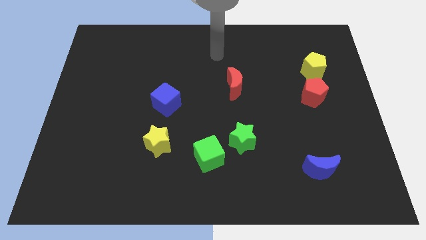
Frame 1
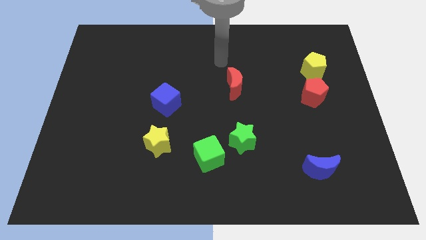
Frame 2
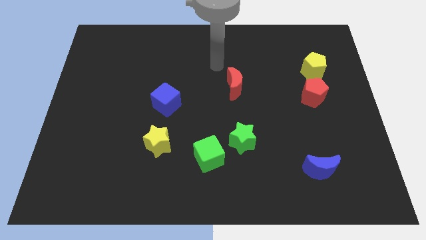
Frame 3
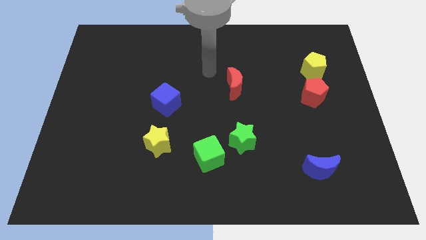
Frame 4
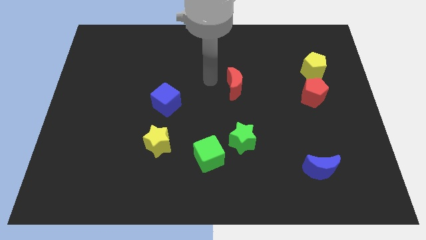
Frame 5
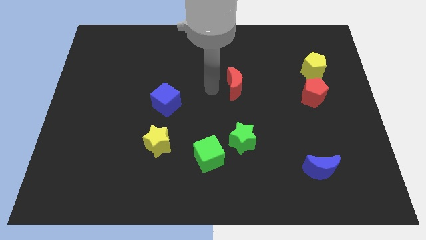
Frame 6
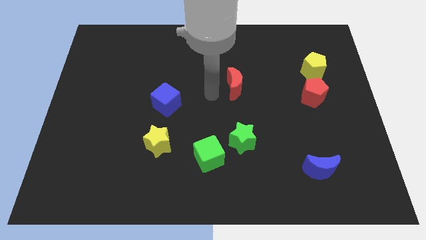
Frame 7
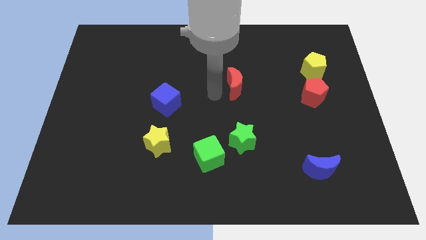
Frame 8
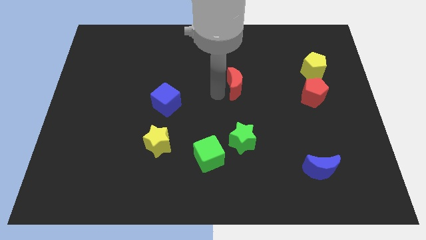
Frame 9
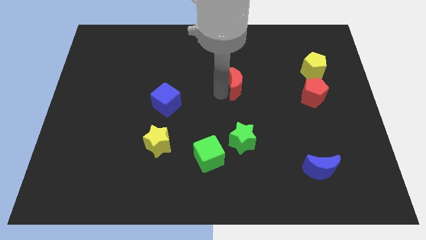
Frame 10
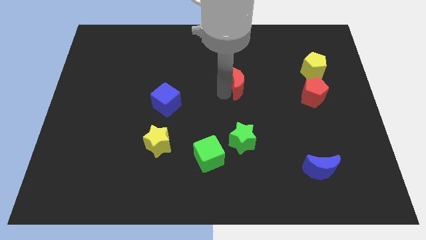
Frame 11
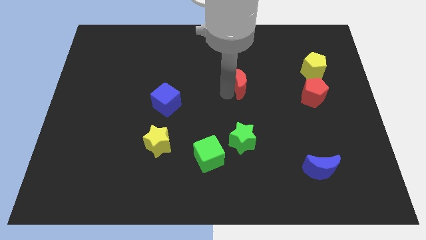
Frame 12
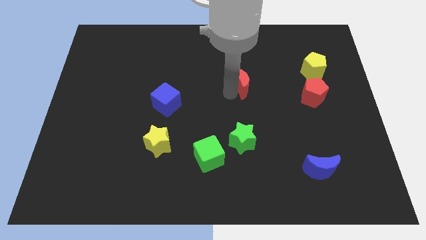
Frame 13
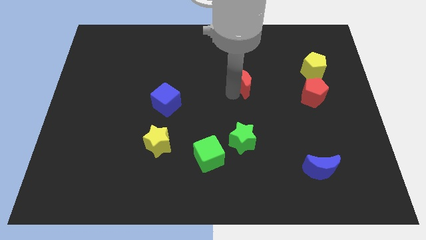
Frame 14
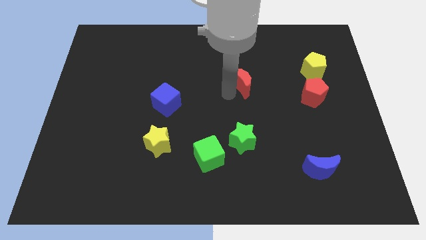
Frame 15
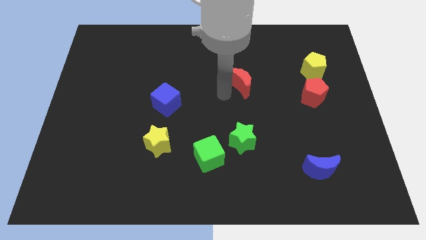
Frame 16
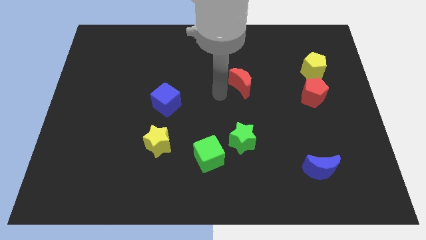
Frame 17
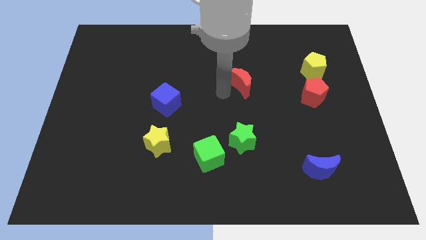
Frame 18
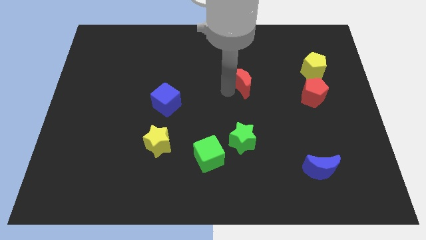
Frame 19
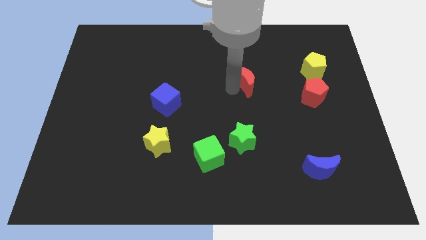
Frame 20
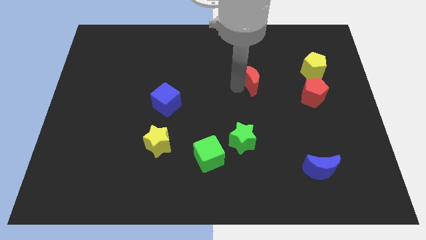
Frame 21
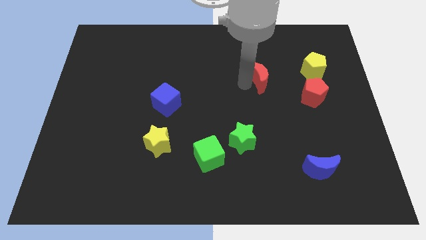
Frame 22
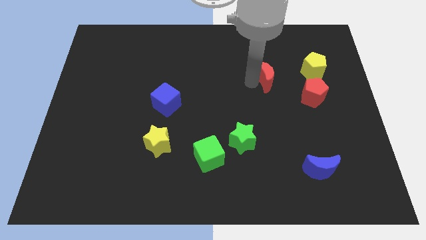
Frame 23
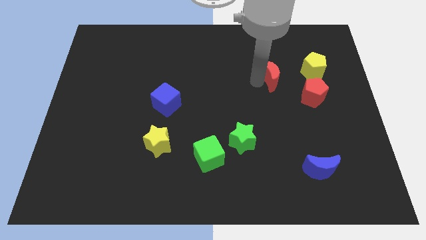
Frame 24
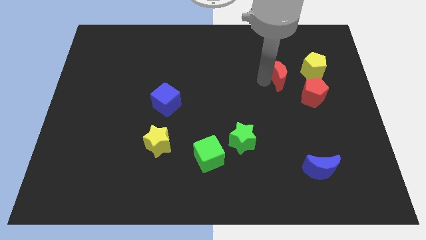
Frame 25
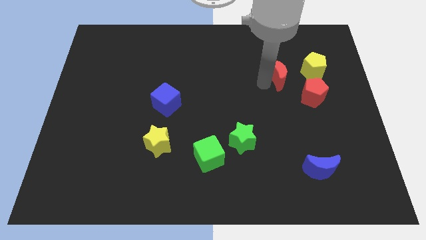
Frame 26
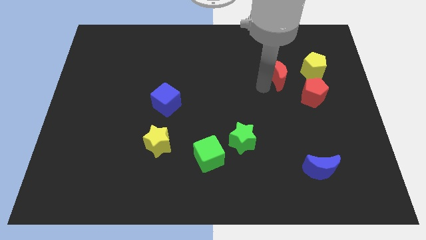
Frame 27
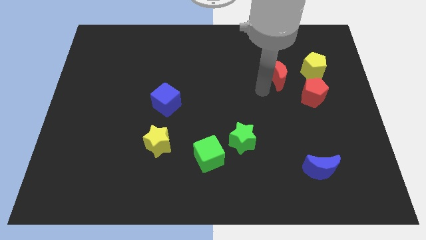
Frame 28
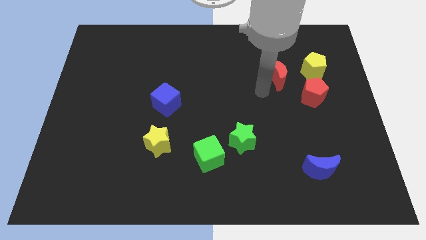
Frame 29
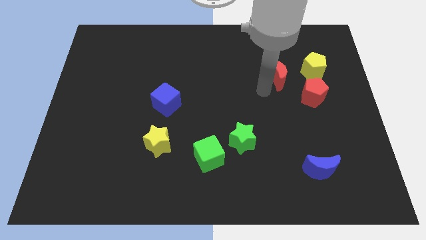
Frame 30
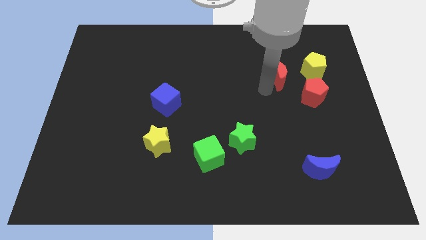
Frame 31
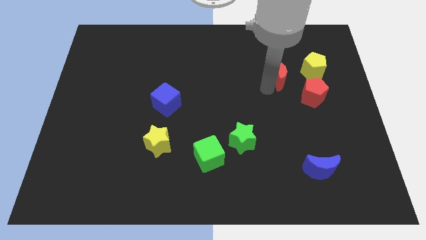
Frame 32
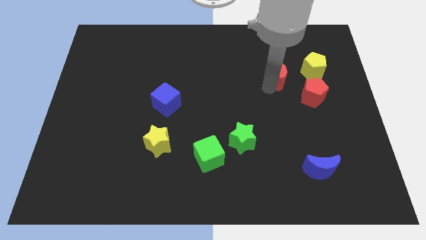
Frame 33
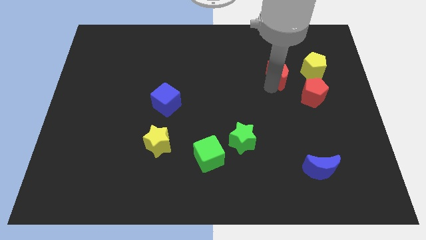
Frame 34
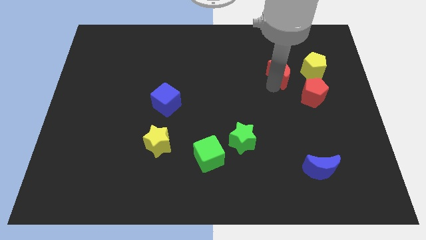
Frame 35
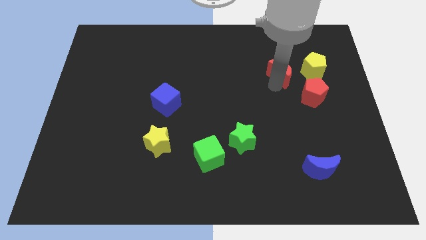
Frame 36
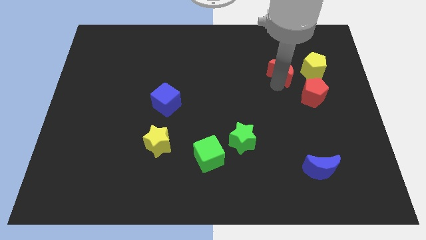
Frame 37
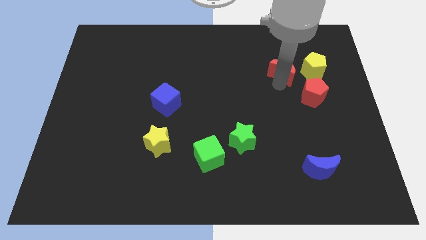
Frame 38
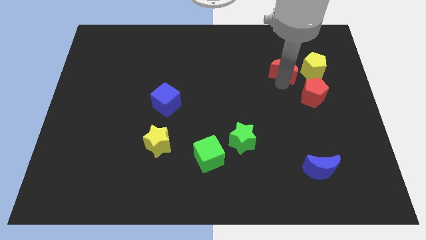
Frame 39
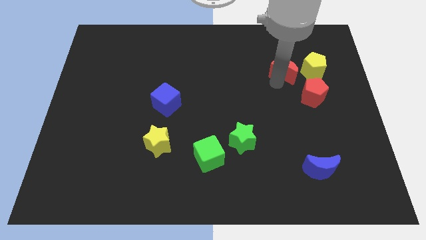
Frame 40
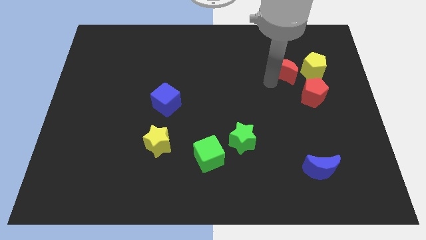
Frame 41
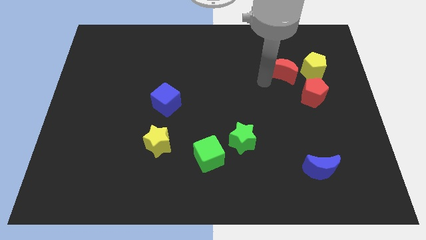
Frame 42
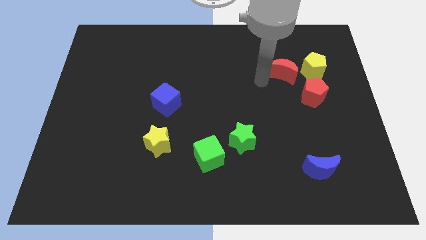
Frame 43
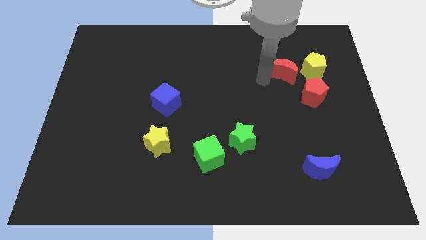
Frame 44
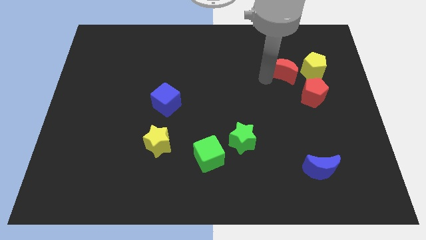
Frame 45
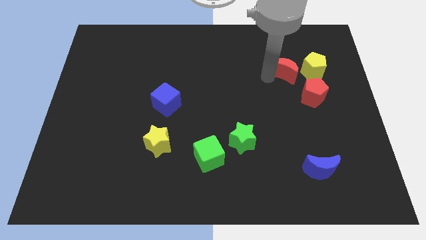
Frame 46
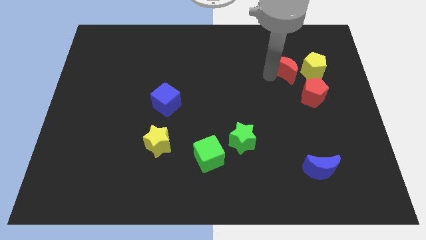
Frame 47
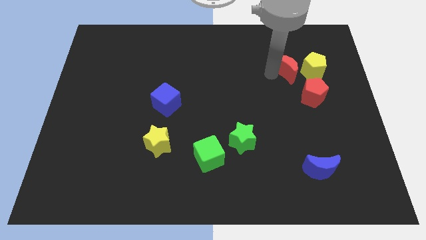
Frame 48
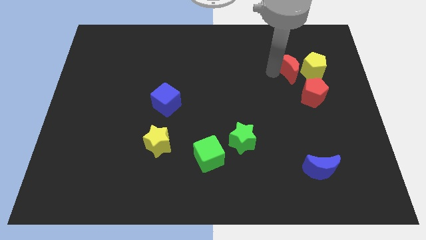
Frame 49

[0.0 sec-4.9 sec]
move the red moon to the top side of the red pentagon

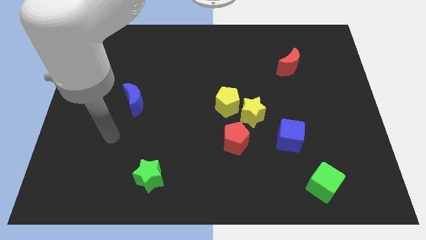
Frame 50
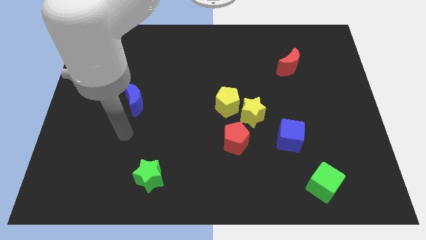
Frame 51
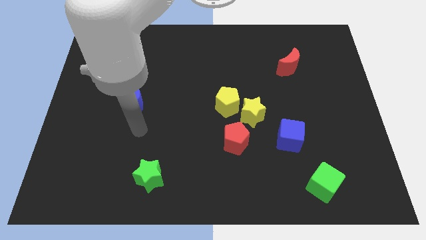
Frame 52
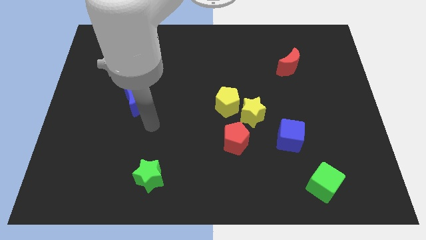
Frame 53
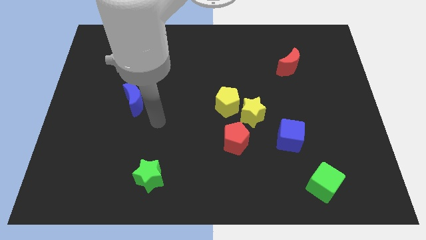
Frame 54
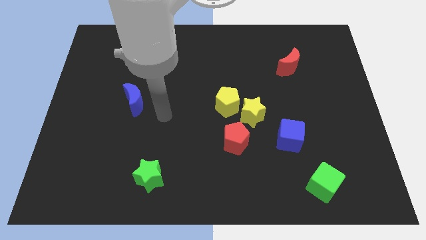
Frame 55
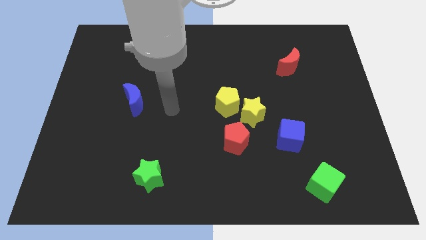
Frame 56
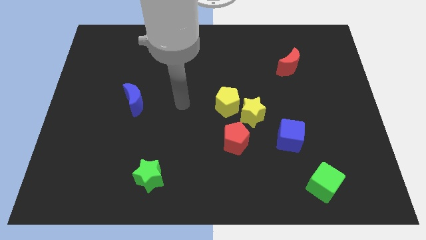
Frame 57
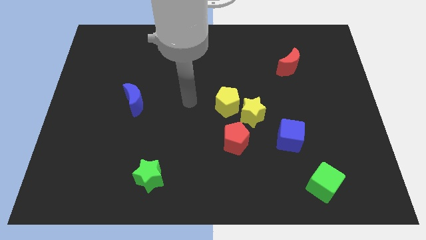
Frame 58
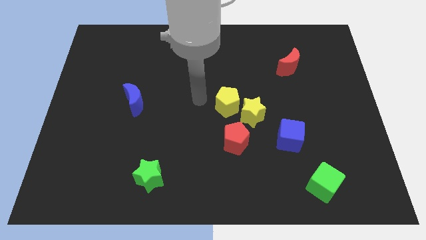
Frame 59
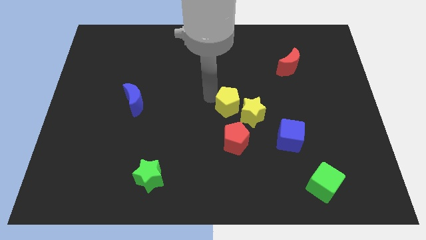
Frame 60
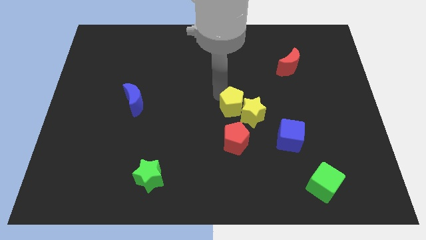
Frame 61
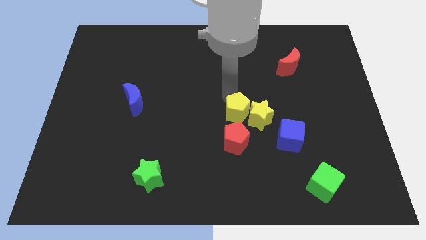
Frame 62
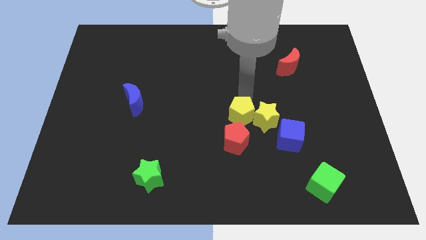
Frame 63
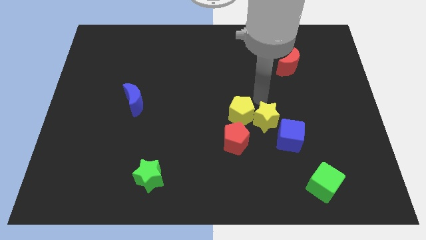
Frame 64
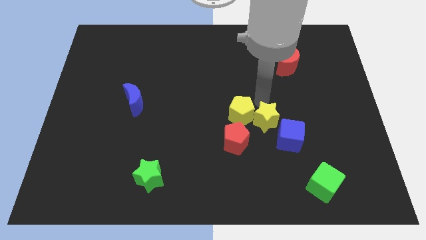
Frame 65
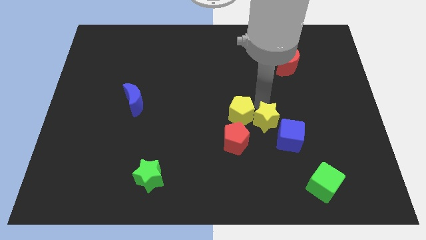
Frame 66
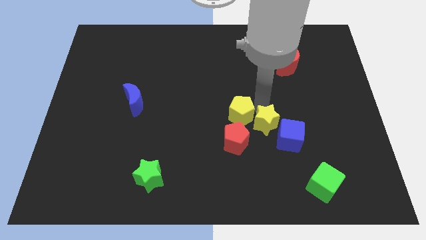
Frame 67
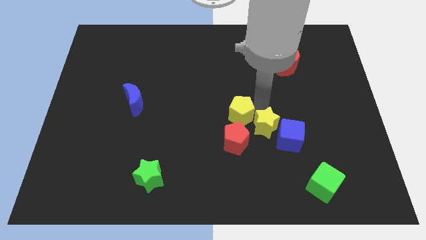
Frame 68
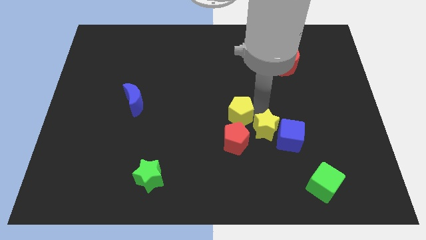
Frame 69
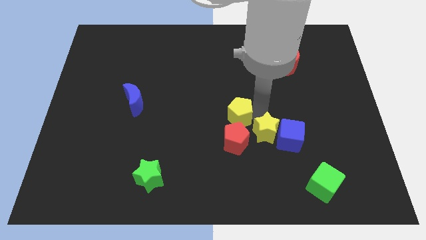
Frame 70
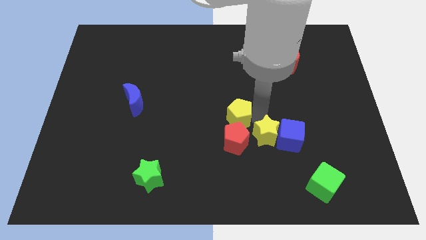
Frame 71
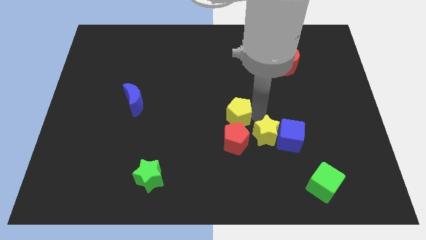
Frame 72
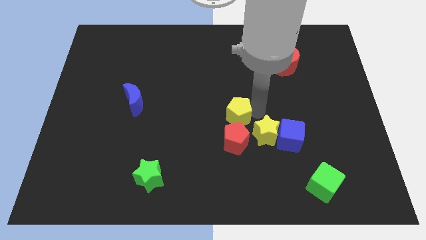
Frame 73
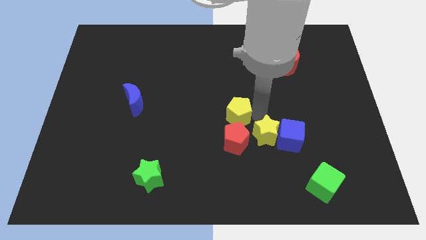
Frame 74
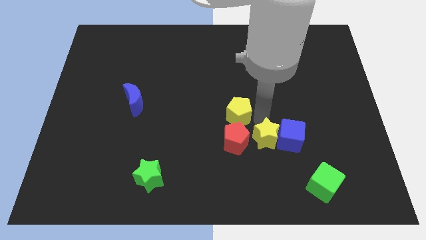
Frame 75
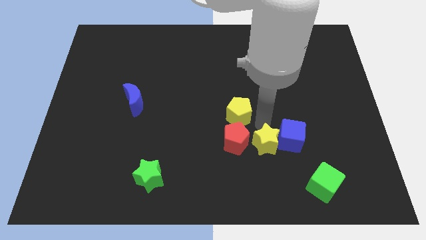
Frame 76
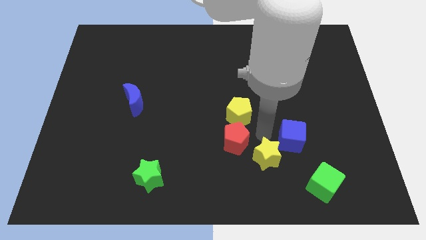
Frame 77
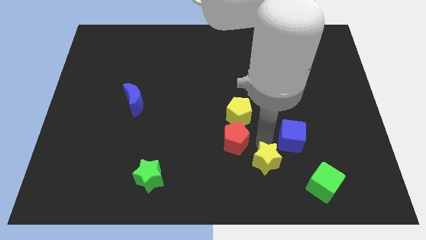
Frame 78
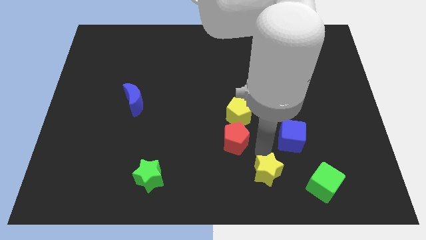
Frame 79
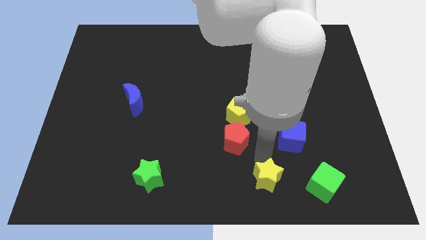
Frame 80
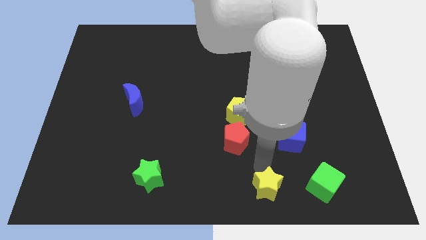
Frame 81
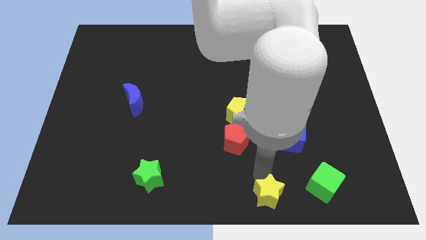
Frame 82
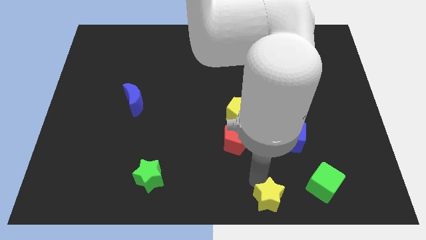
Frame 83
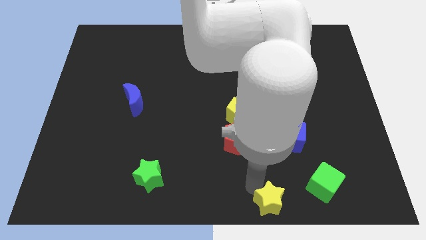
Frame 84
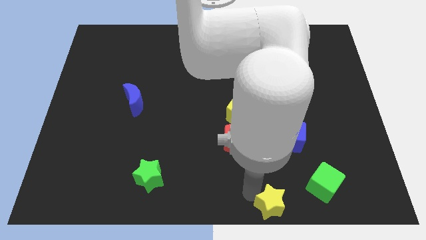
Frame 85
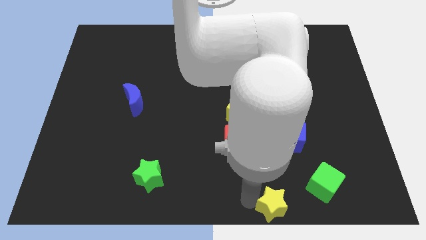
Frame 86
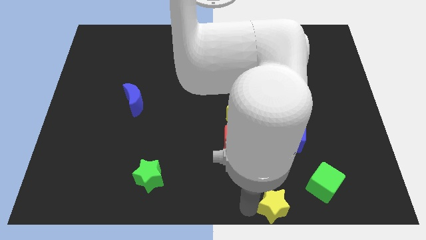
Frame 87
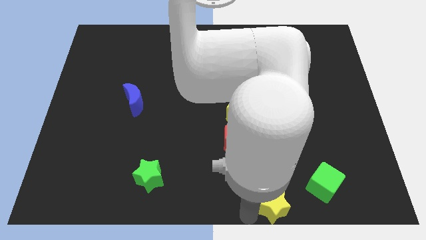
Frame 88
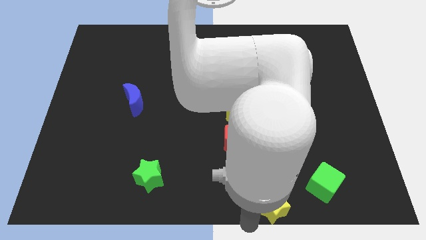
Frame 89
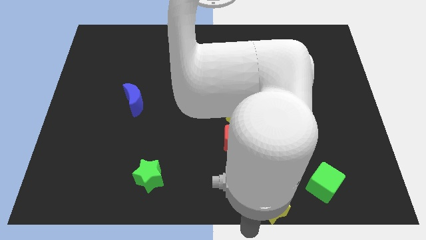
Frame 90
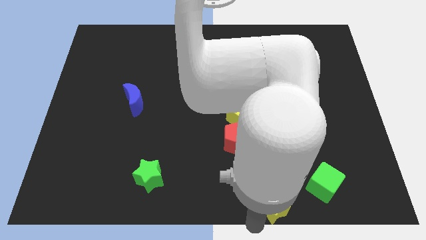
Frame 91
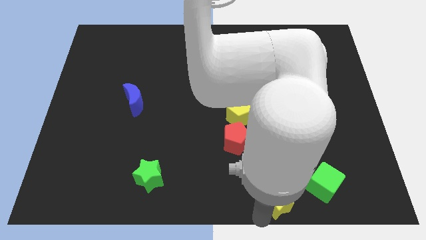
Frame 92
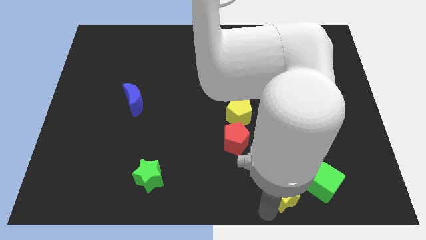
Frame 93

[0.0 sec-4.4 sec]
put the yellow star below the blue cube
